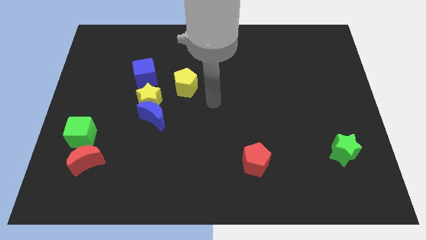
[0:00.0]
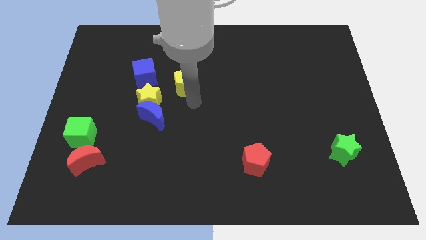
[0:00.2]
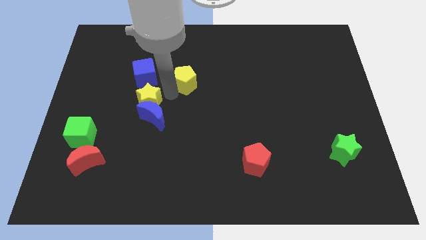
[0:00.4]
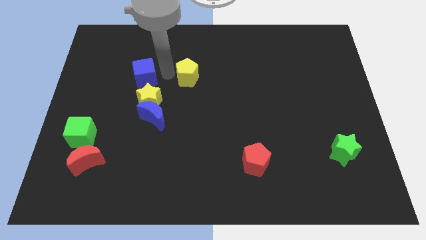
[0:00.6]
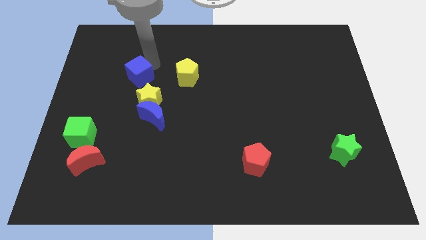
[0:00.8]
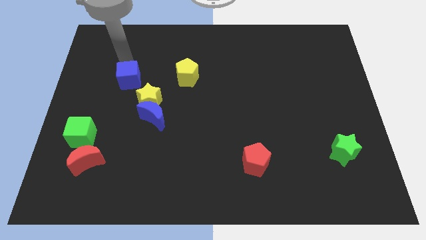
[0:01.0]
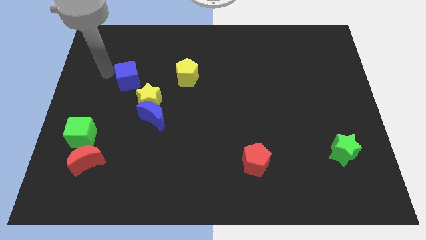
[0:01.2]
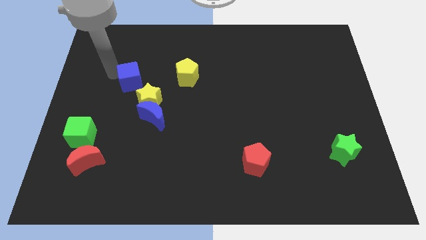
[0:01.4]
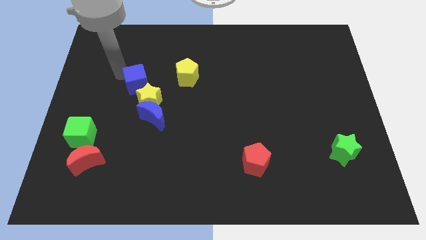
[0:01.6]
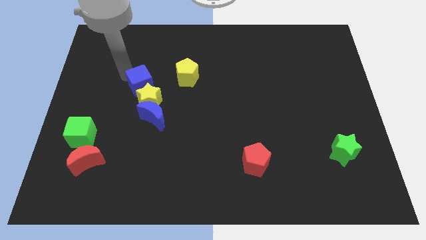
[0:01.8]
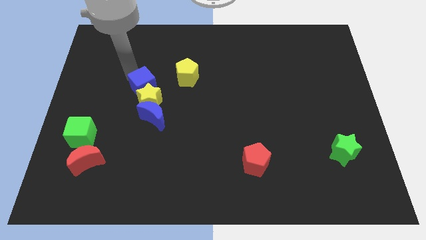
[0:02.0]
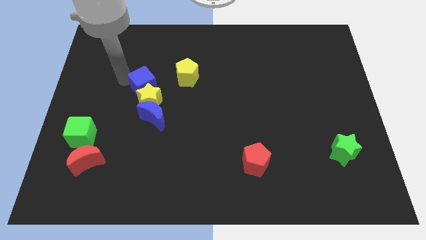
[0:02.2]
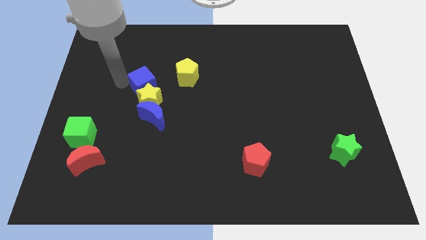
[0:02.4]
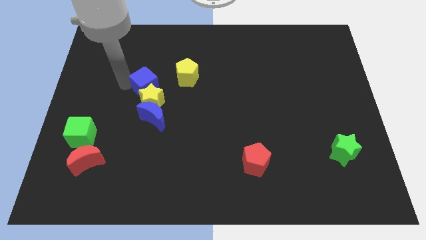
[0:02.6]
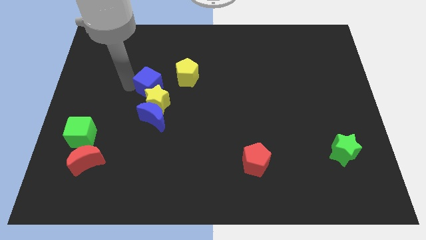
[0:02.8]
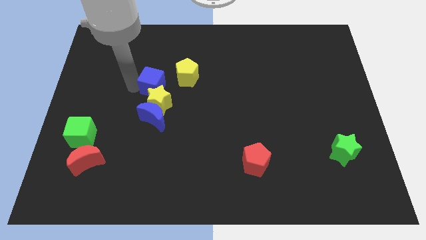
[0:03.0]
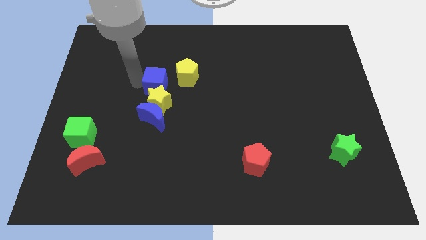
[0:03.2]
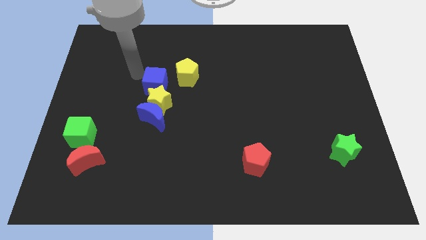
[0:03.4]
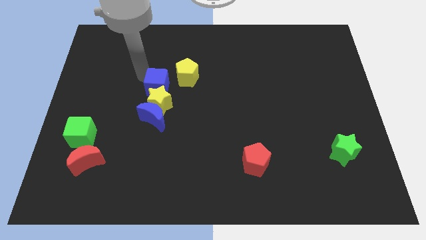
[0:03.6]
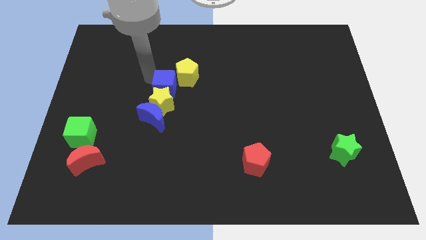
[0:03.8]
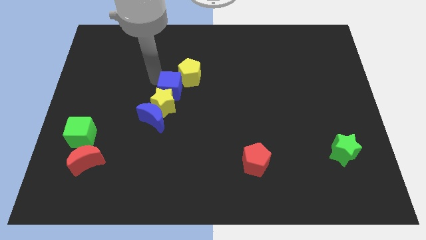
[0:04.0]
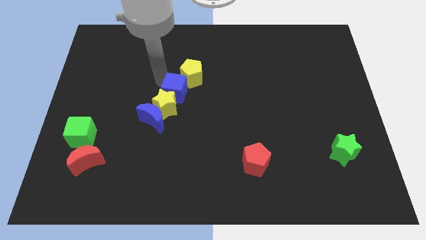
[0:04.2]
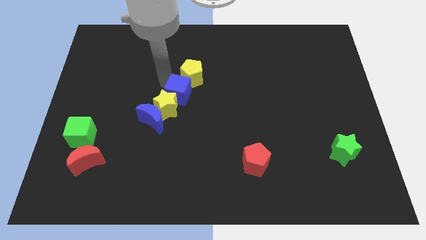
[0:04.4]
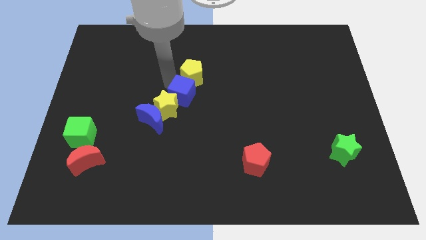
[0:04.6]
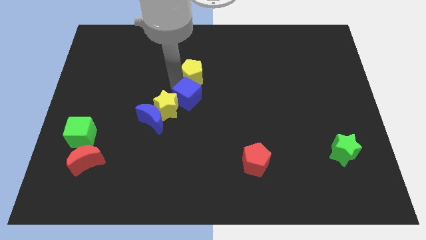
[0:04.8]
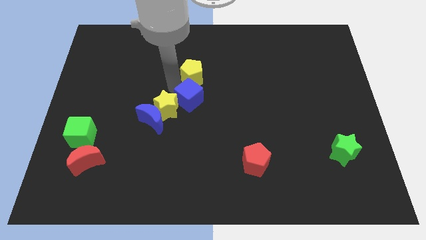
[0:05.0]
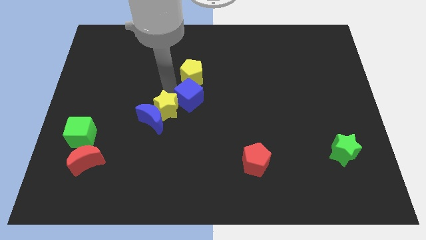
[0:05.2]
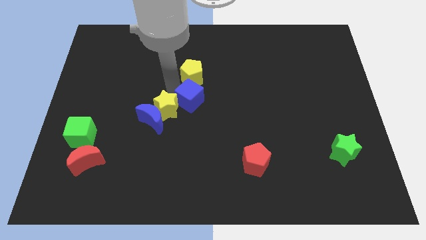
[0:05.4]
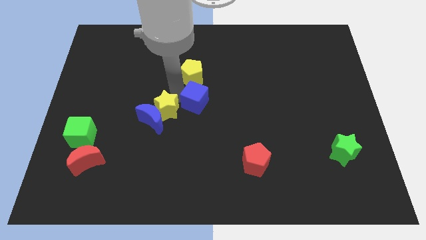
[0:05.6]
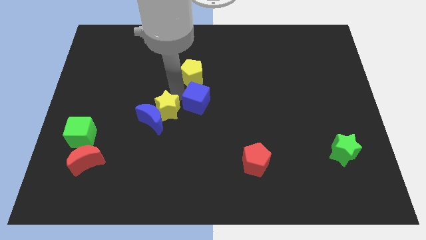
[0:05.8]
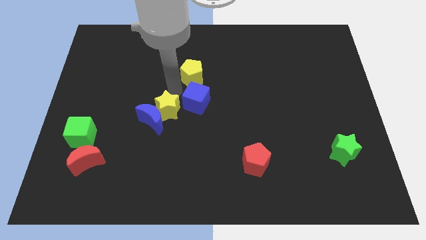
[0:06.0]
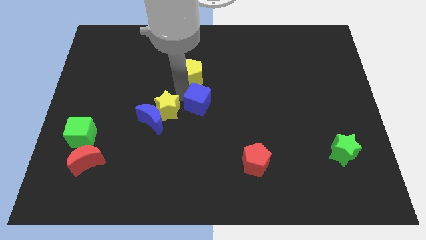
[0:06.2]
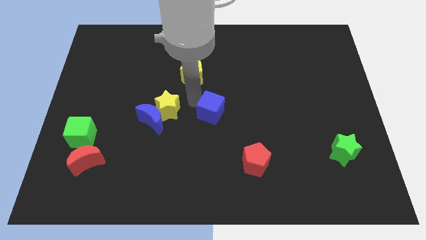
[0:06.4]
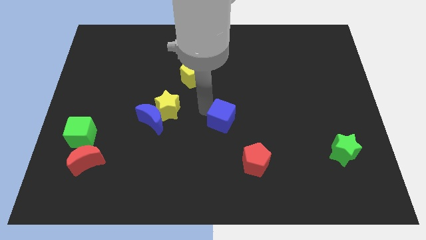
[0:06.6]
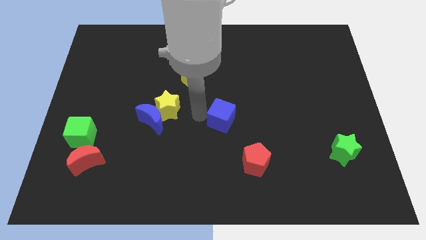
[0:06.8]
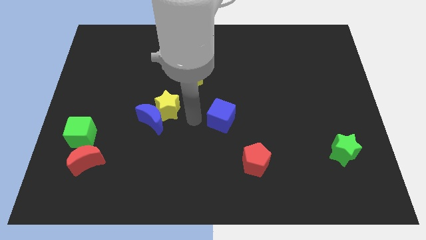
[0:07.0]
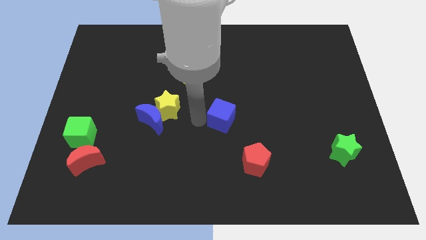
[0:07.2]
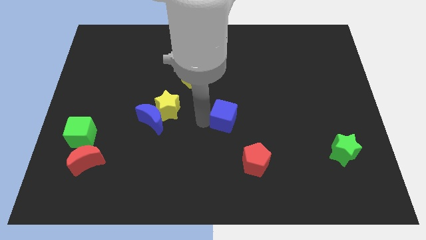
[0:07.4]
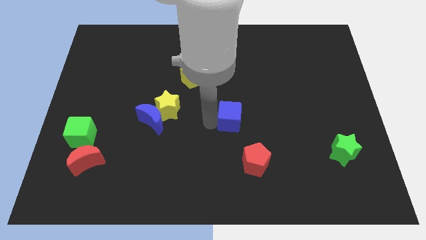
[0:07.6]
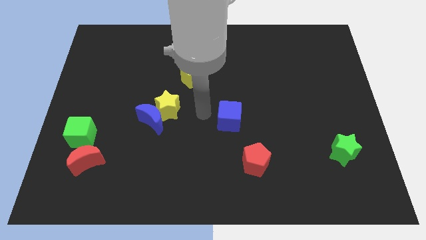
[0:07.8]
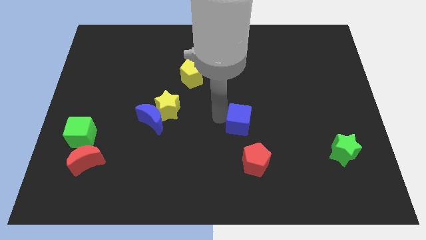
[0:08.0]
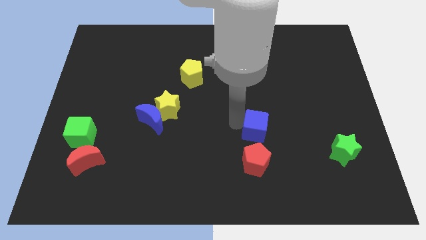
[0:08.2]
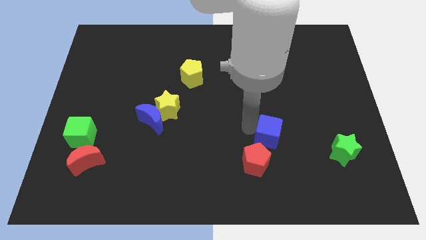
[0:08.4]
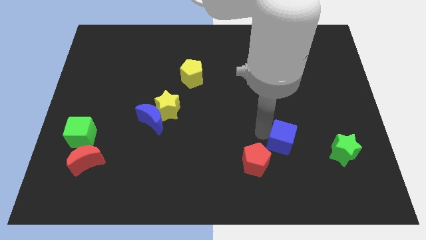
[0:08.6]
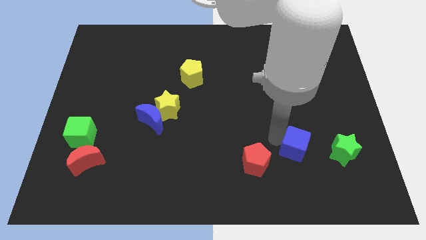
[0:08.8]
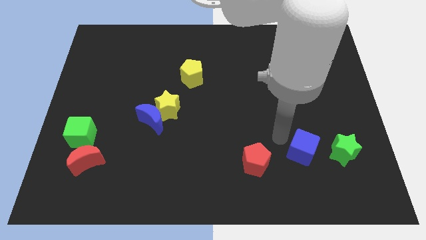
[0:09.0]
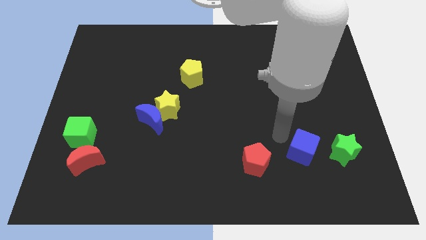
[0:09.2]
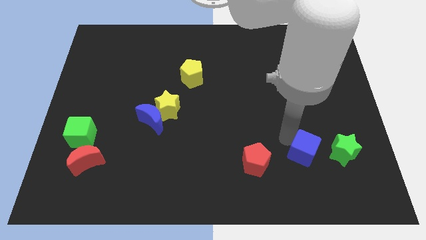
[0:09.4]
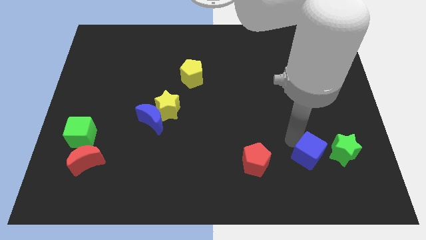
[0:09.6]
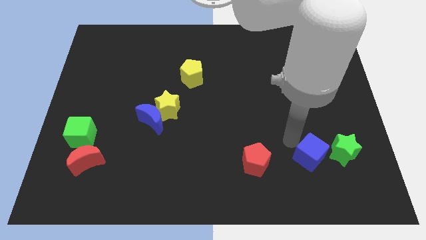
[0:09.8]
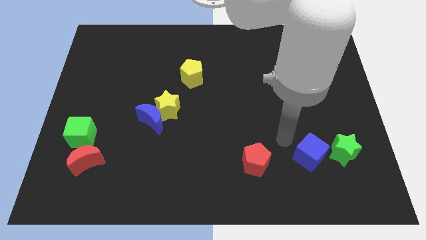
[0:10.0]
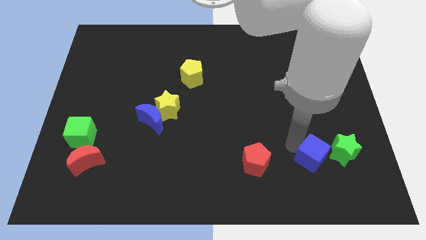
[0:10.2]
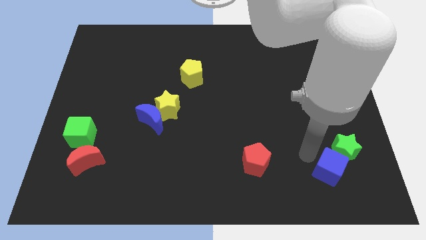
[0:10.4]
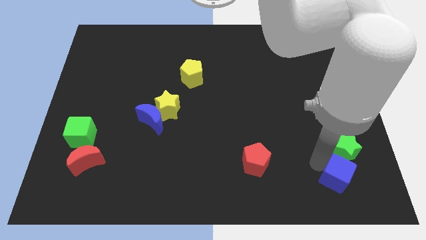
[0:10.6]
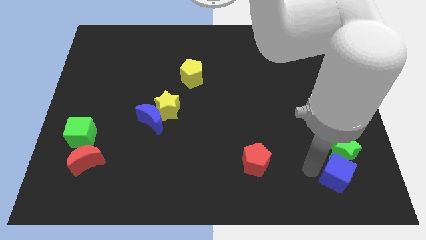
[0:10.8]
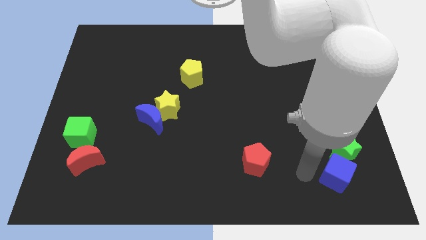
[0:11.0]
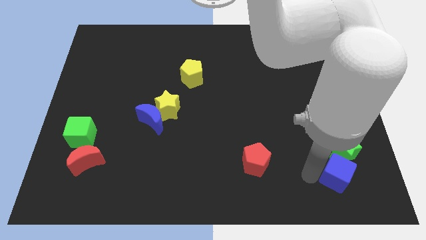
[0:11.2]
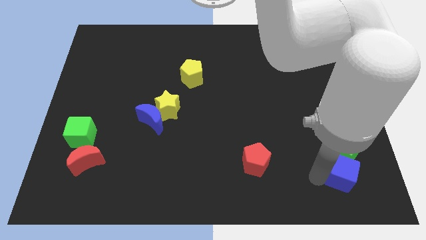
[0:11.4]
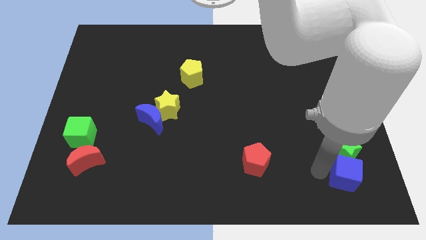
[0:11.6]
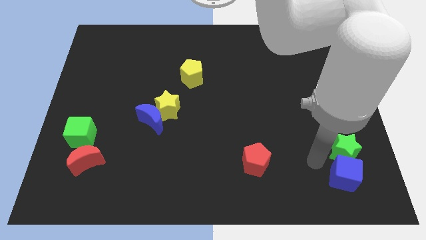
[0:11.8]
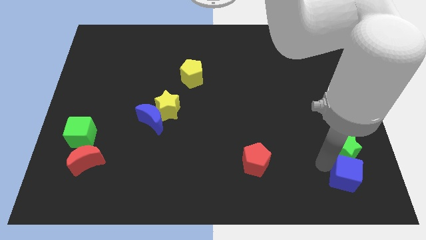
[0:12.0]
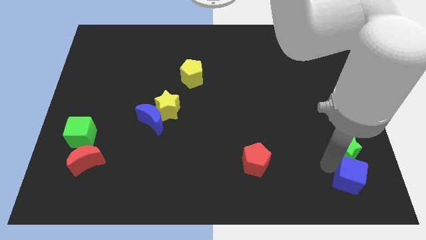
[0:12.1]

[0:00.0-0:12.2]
move the blue cube to the bottom right

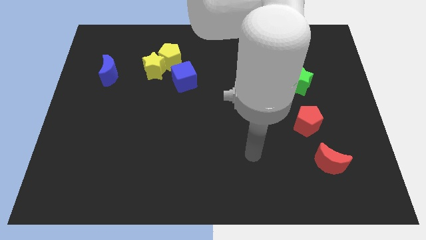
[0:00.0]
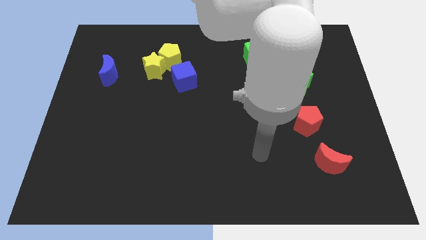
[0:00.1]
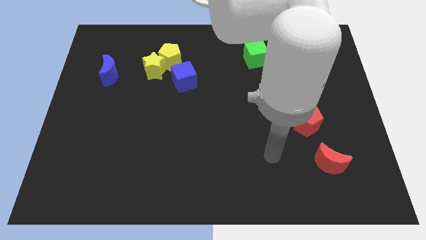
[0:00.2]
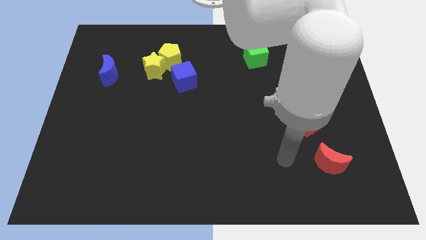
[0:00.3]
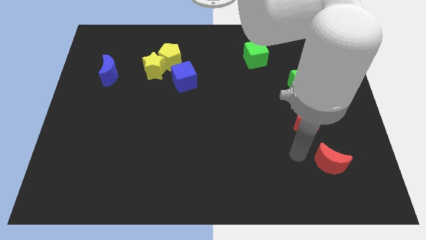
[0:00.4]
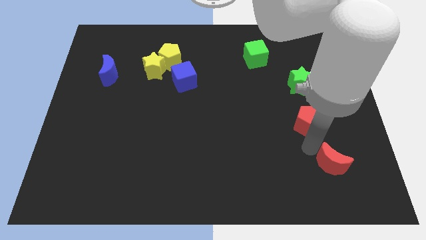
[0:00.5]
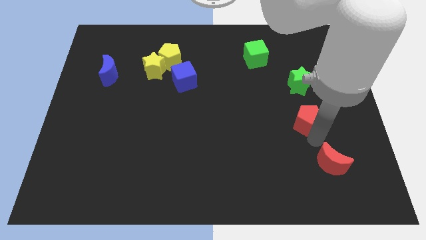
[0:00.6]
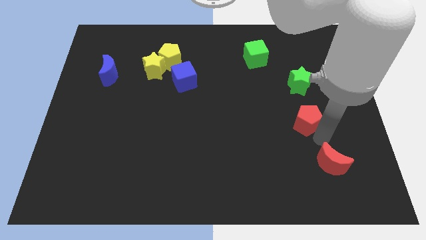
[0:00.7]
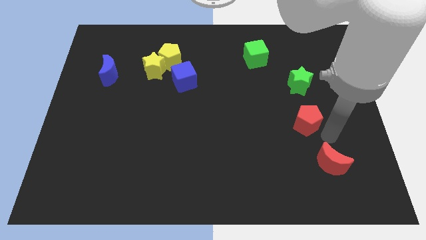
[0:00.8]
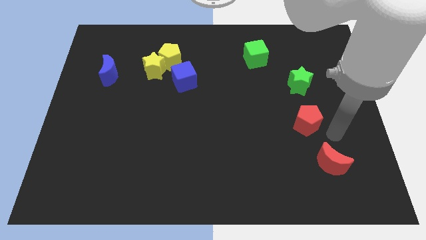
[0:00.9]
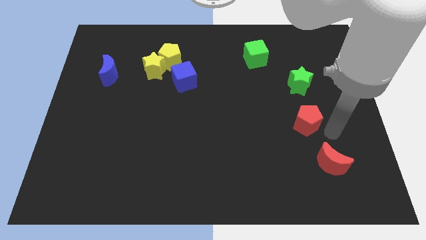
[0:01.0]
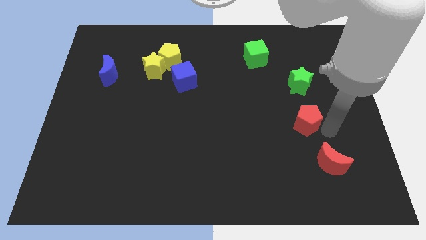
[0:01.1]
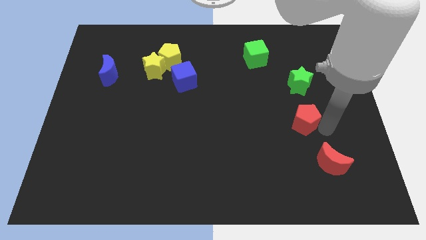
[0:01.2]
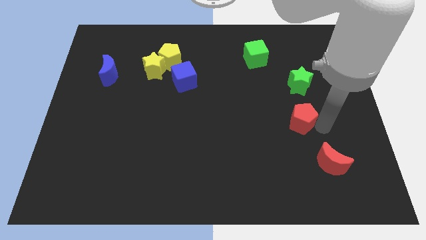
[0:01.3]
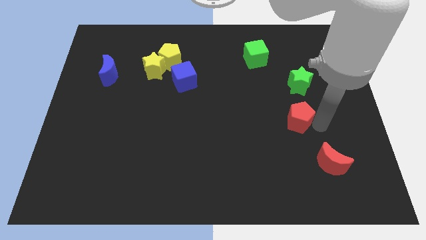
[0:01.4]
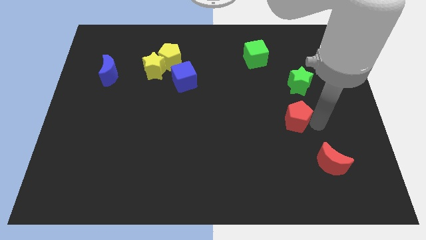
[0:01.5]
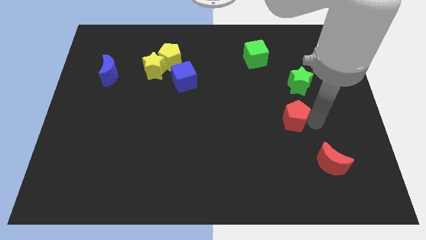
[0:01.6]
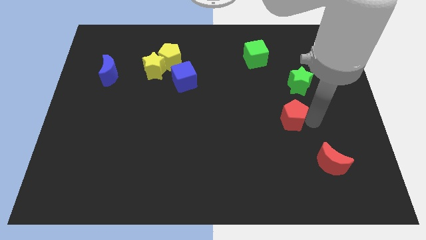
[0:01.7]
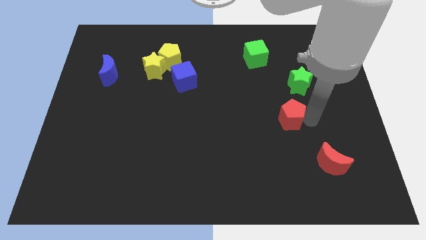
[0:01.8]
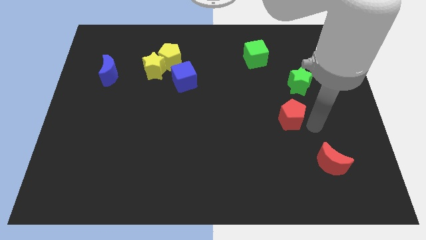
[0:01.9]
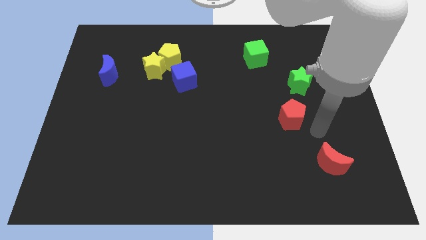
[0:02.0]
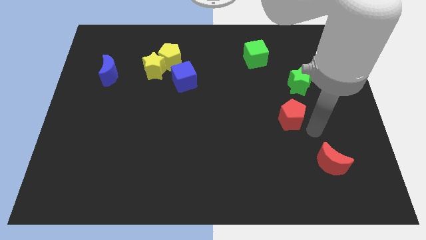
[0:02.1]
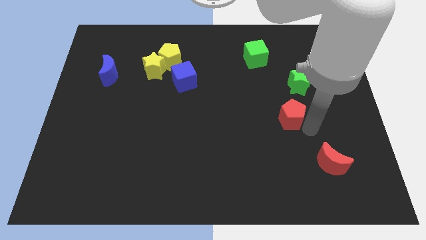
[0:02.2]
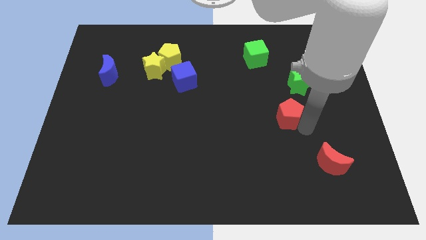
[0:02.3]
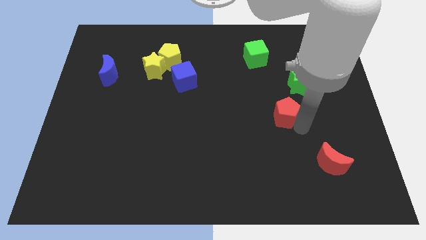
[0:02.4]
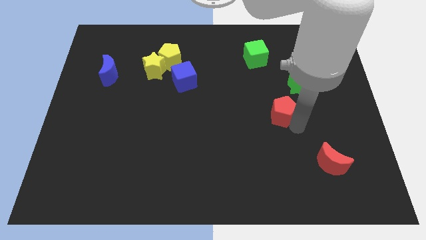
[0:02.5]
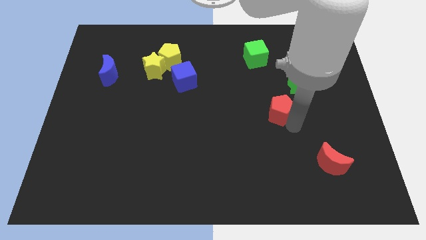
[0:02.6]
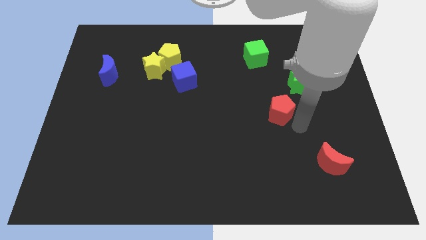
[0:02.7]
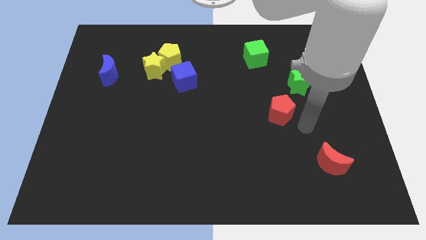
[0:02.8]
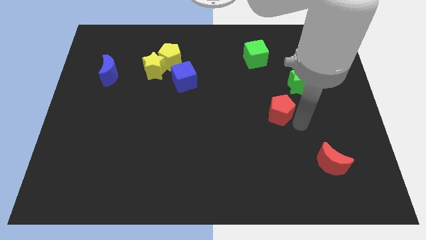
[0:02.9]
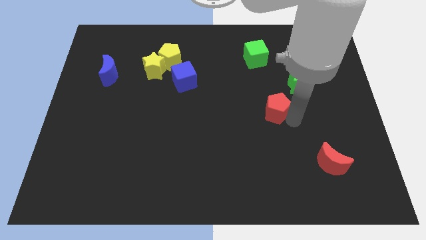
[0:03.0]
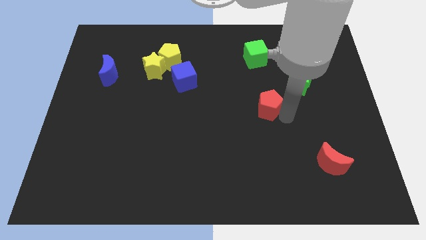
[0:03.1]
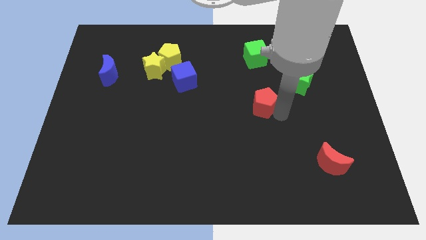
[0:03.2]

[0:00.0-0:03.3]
push the red pentagon to the center
